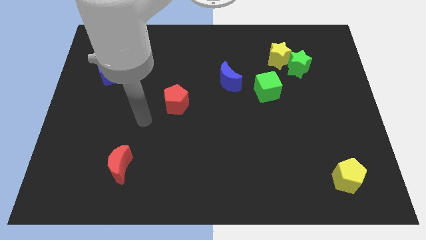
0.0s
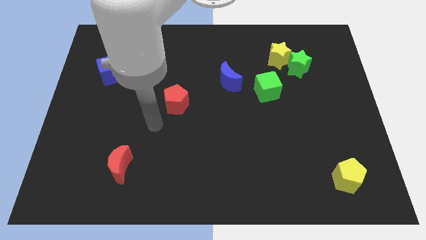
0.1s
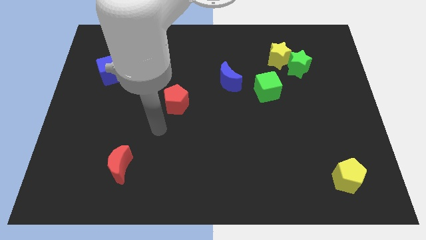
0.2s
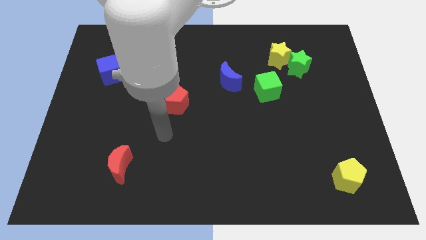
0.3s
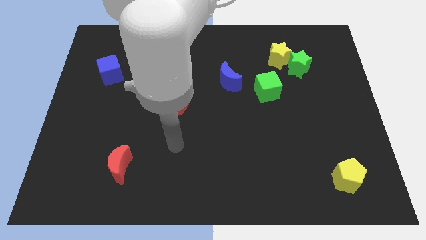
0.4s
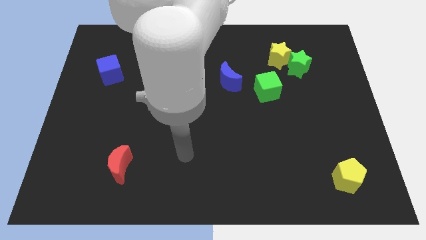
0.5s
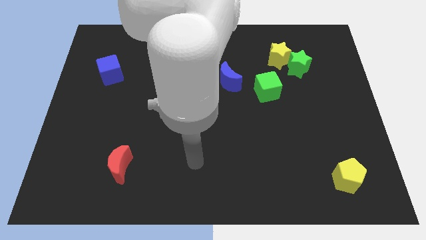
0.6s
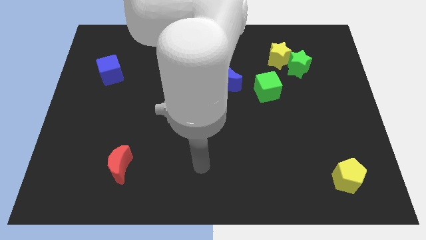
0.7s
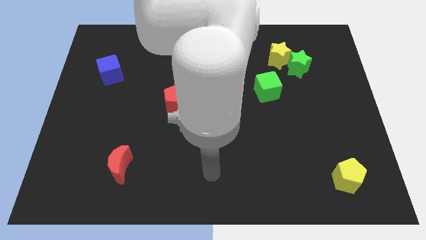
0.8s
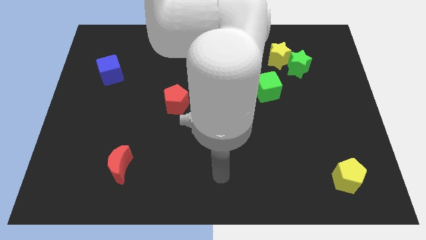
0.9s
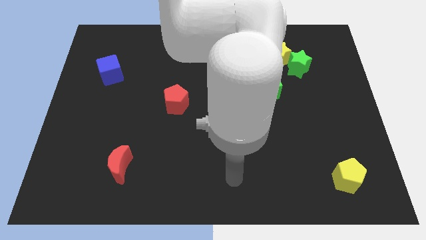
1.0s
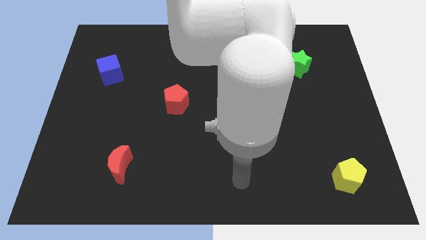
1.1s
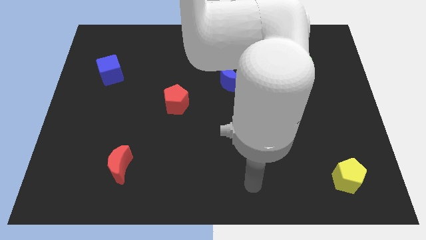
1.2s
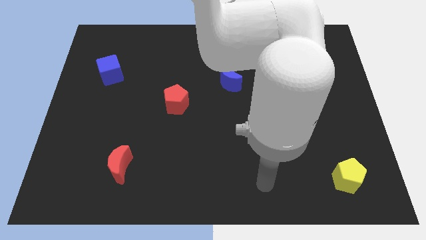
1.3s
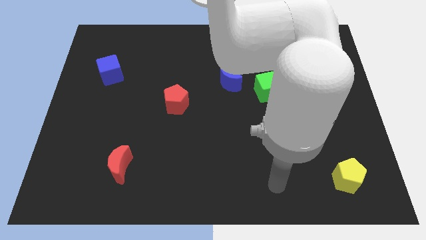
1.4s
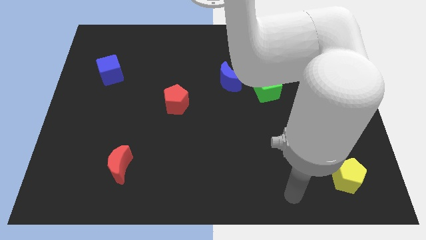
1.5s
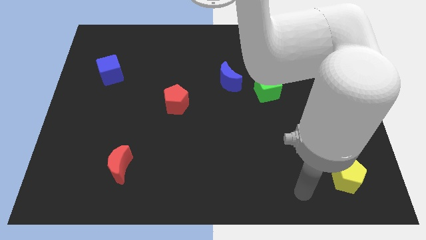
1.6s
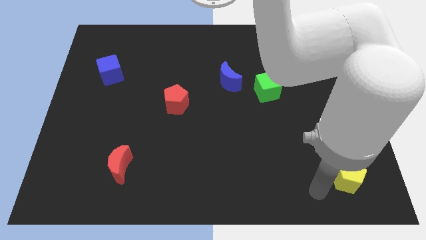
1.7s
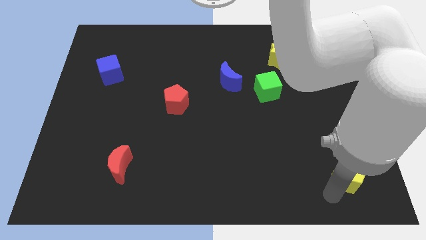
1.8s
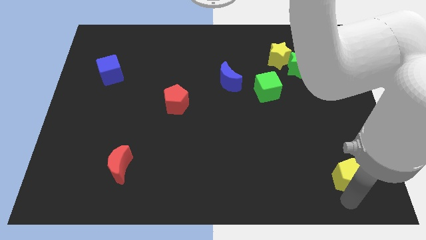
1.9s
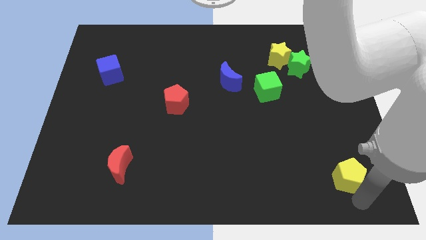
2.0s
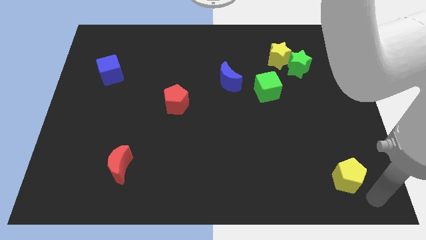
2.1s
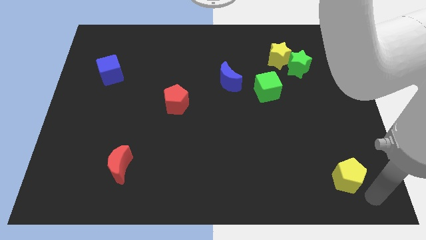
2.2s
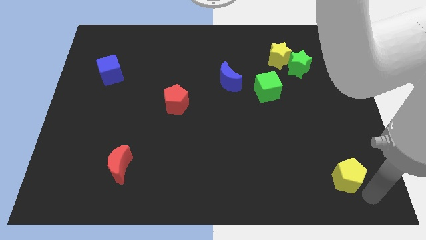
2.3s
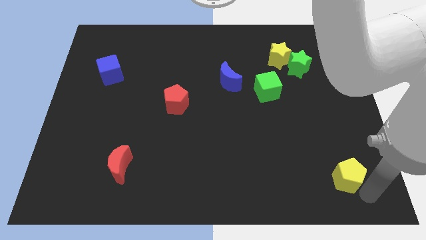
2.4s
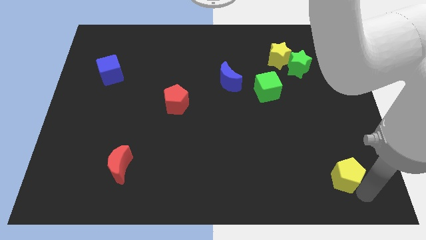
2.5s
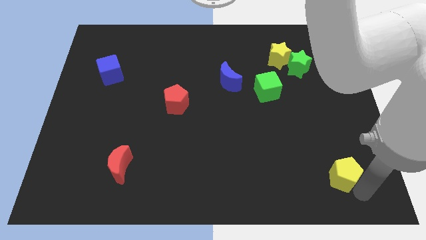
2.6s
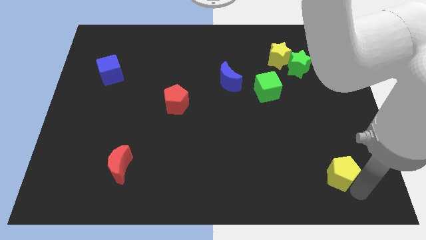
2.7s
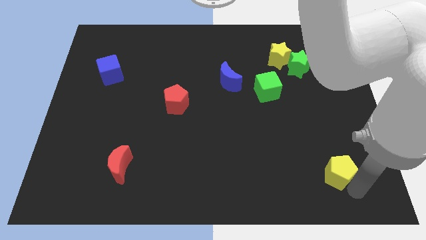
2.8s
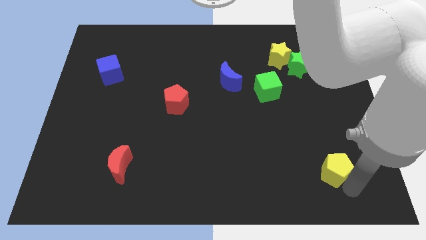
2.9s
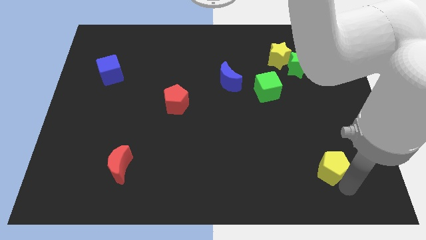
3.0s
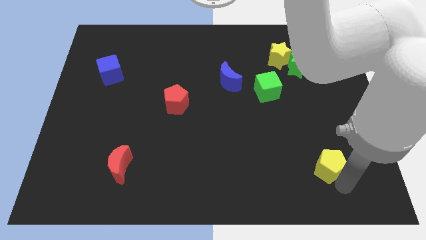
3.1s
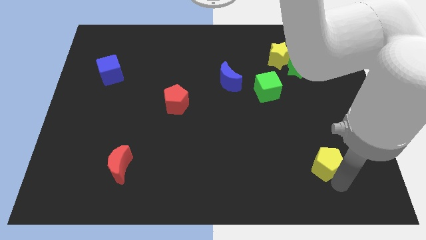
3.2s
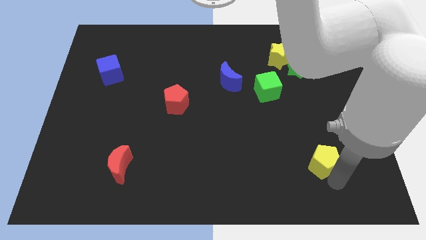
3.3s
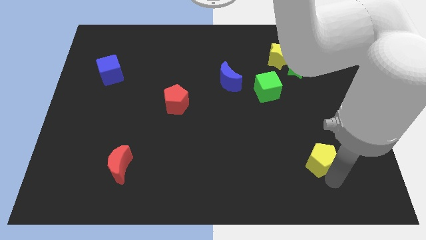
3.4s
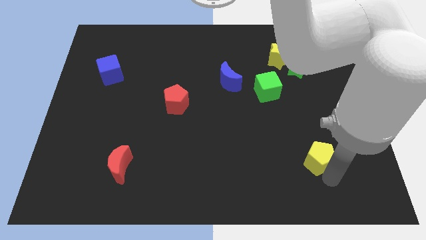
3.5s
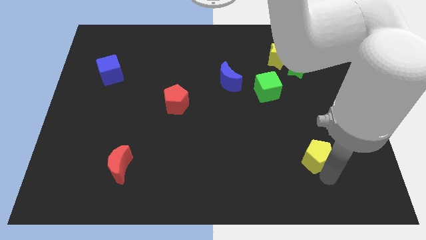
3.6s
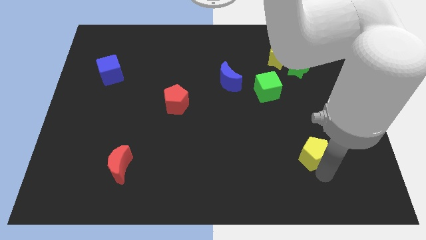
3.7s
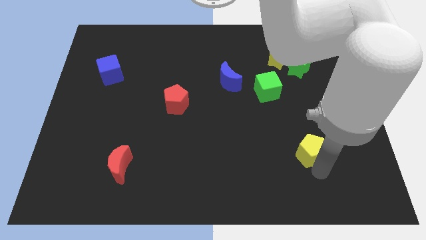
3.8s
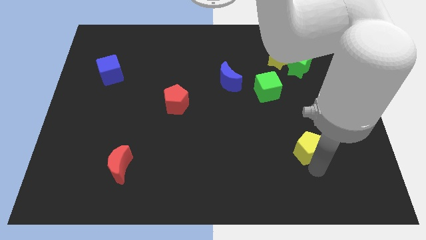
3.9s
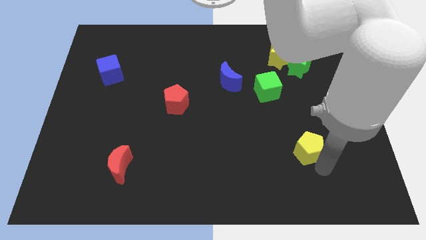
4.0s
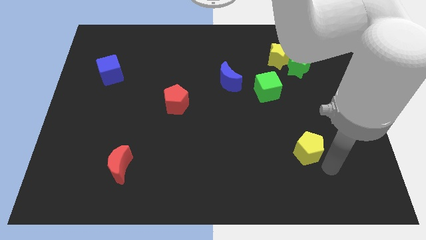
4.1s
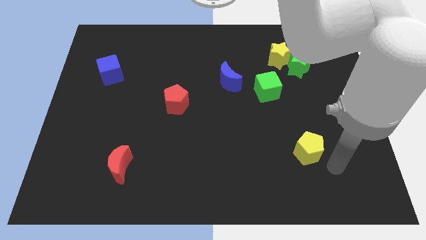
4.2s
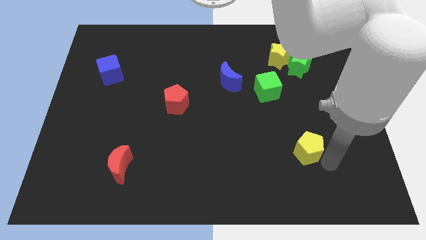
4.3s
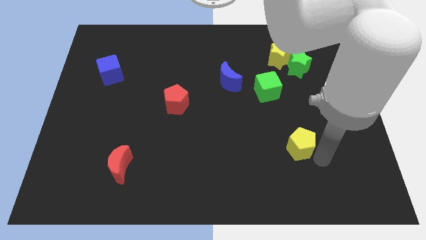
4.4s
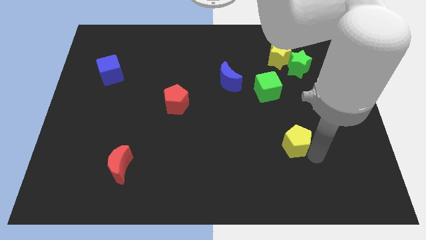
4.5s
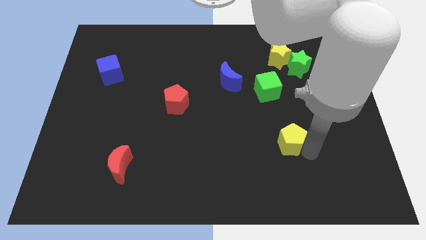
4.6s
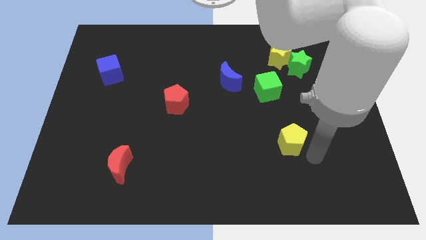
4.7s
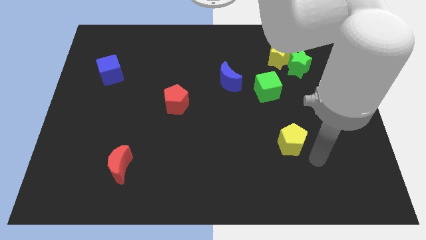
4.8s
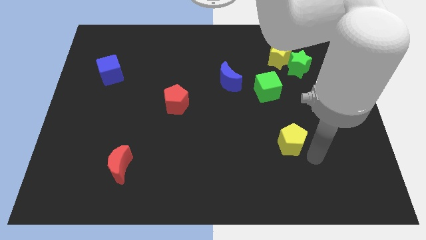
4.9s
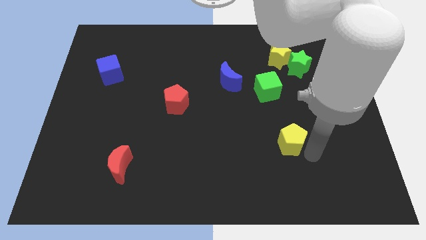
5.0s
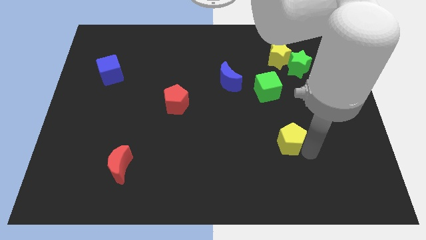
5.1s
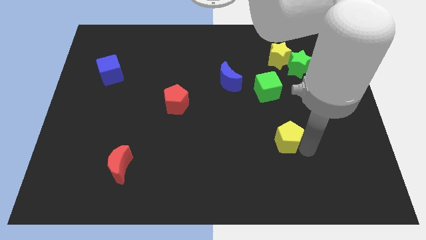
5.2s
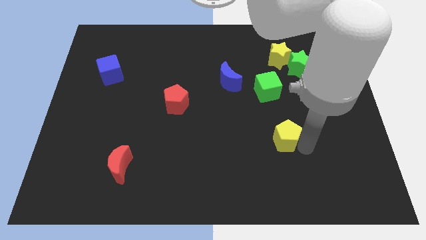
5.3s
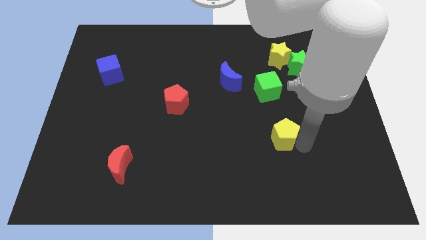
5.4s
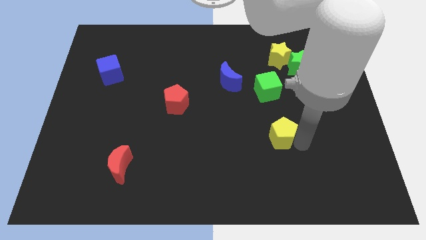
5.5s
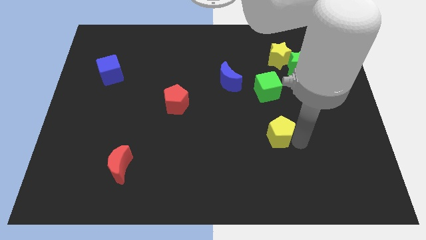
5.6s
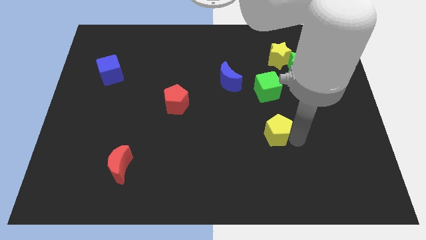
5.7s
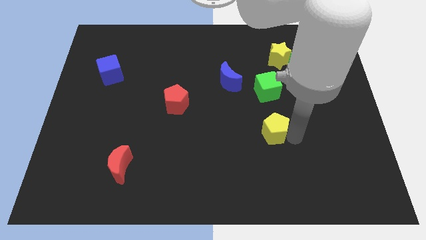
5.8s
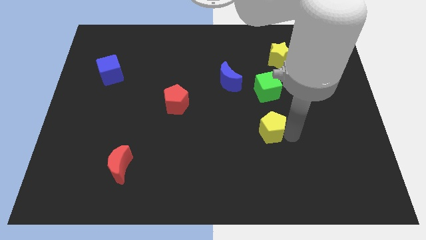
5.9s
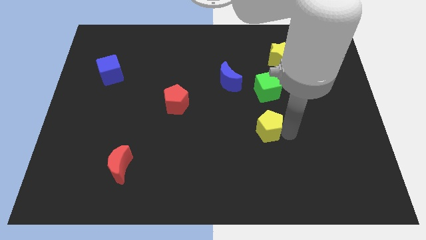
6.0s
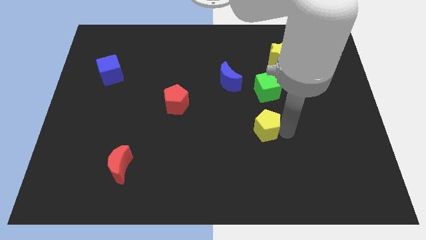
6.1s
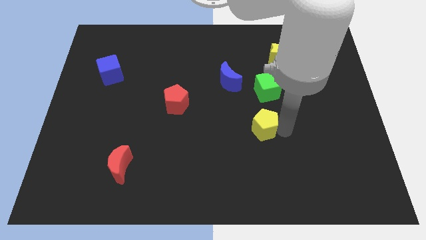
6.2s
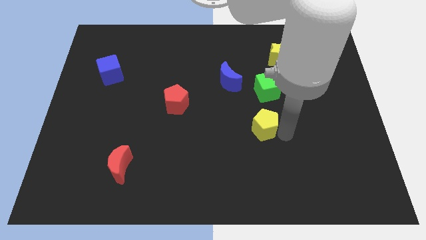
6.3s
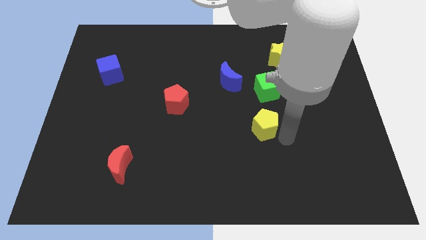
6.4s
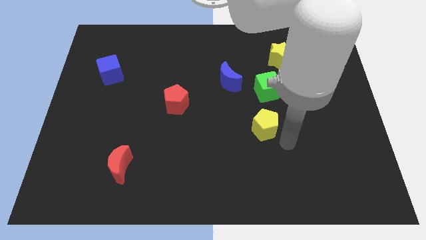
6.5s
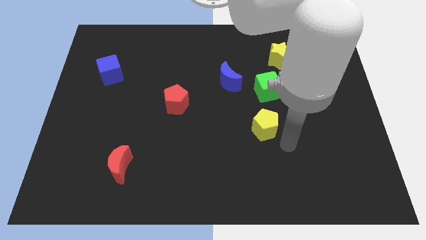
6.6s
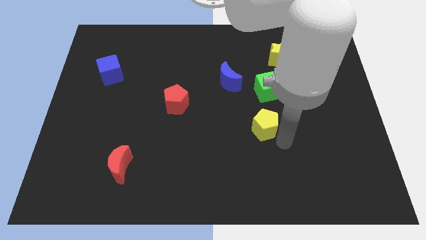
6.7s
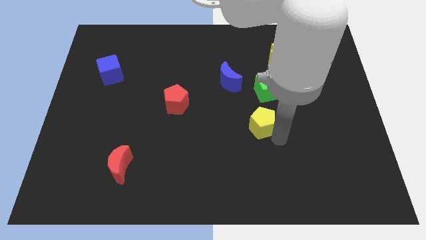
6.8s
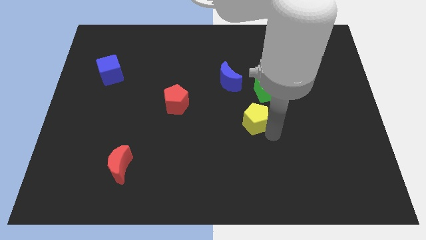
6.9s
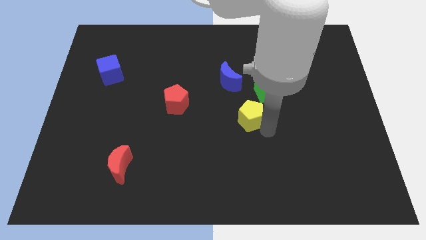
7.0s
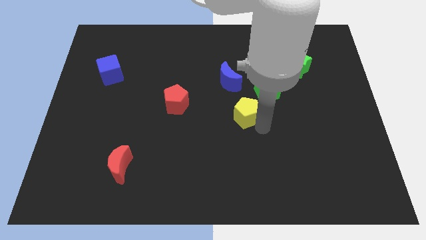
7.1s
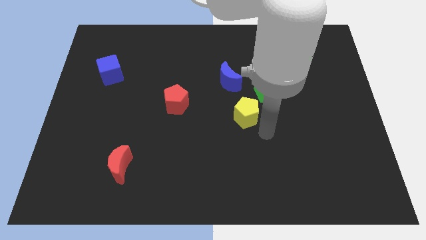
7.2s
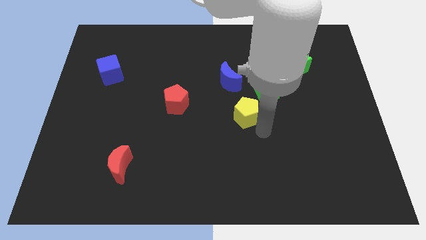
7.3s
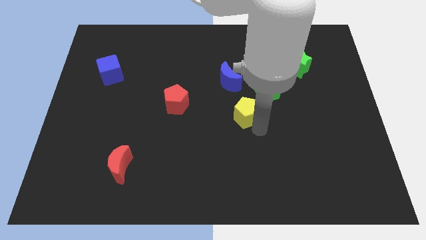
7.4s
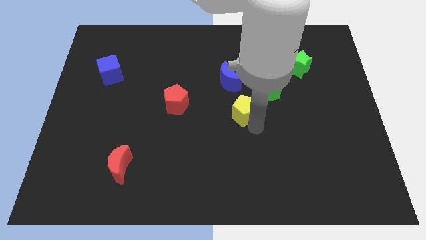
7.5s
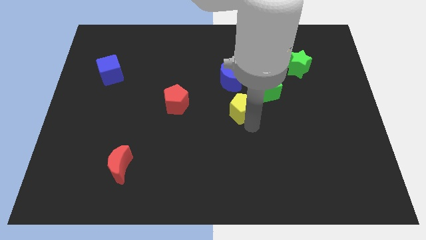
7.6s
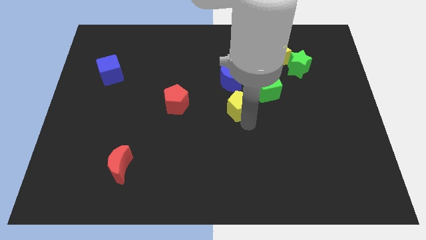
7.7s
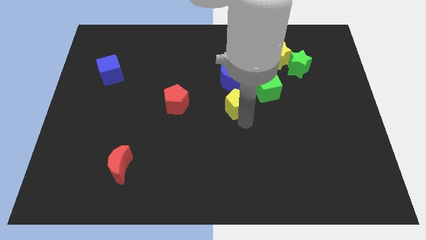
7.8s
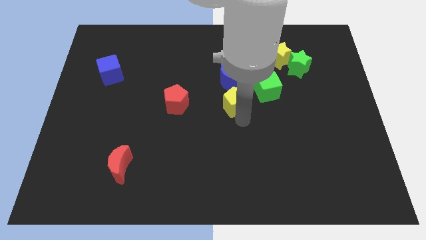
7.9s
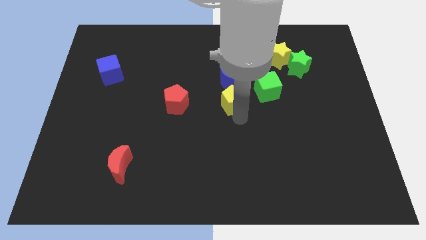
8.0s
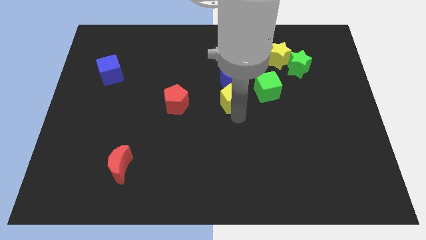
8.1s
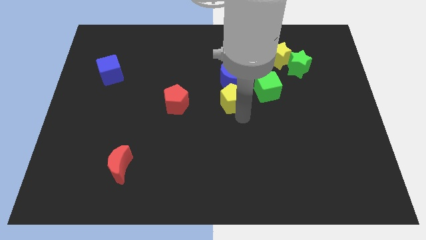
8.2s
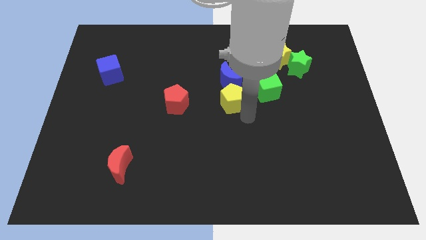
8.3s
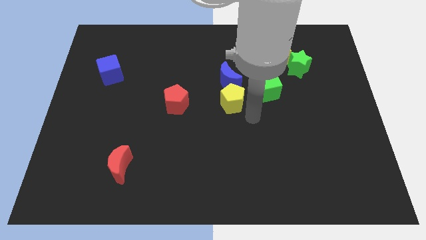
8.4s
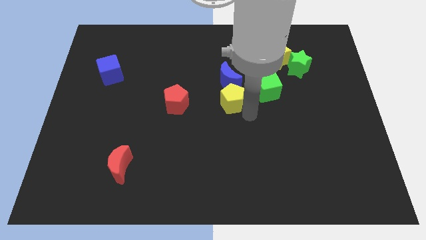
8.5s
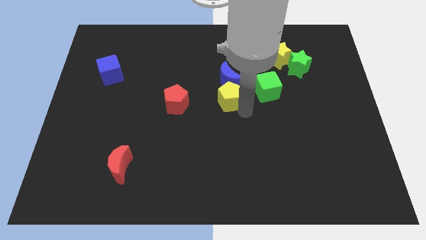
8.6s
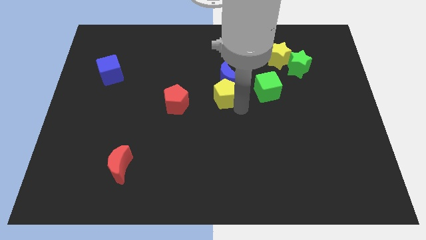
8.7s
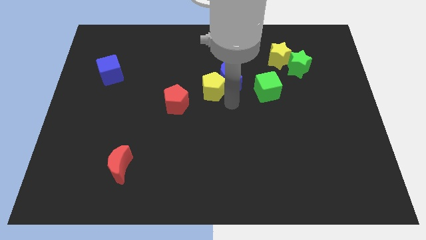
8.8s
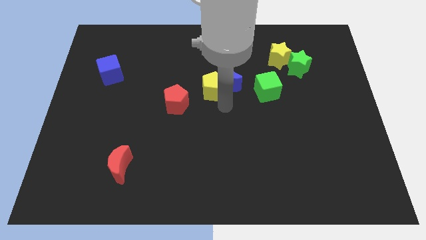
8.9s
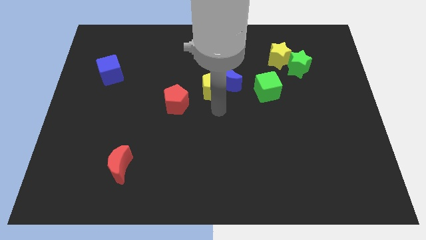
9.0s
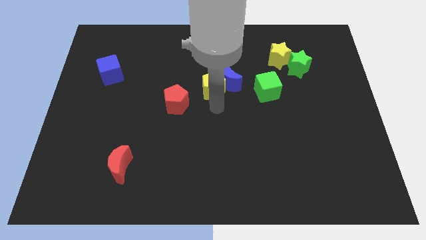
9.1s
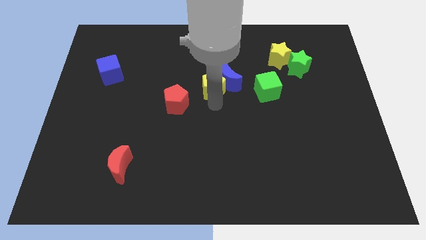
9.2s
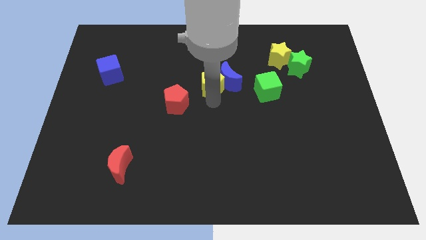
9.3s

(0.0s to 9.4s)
move the yellow pentagon diagonally up and to the left of the blue moon
